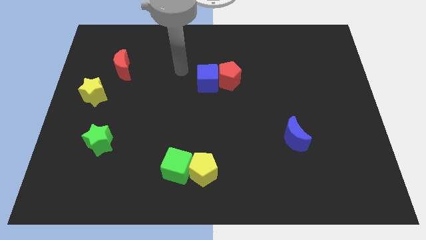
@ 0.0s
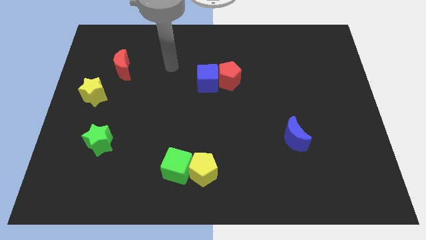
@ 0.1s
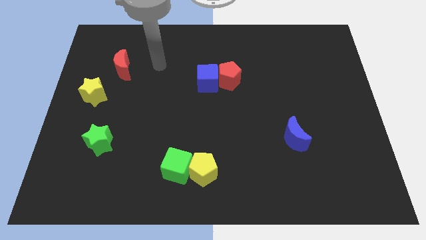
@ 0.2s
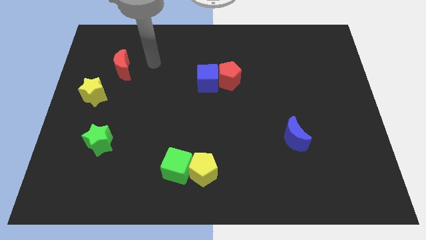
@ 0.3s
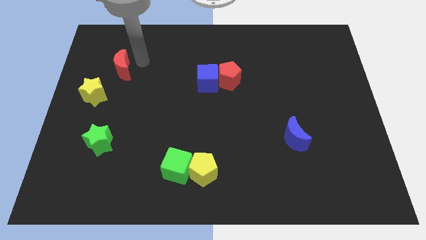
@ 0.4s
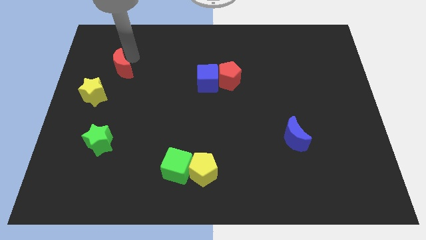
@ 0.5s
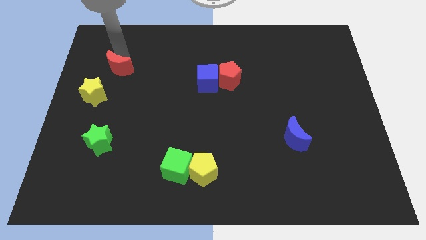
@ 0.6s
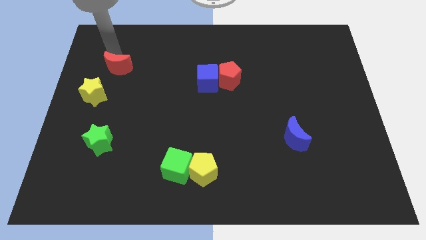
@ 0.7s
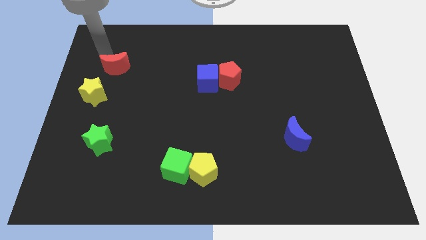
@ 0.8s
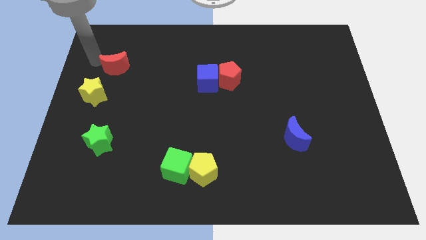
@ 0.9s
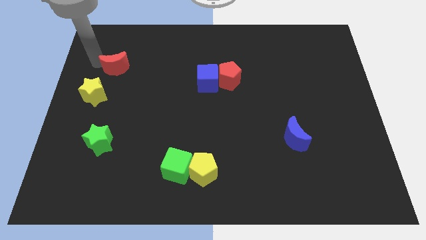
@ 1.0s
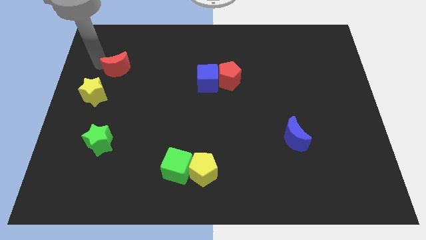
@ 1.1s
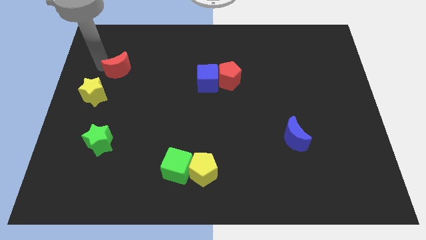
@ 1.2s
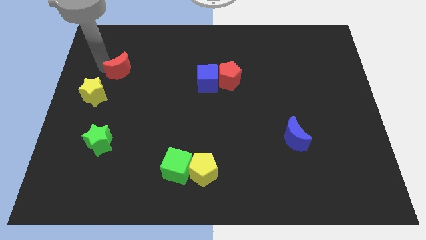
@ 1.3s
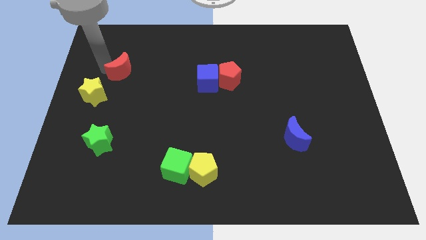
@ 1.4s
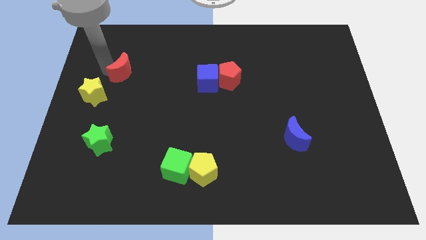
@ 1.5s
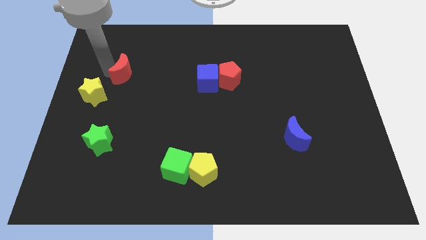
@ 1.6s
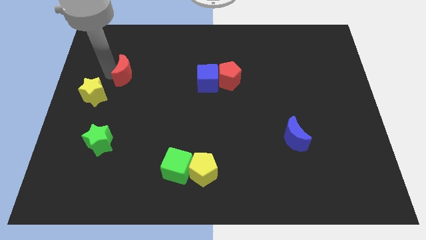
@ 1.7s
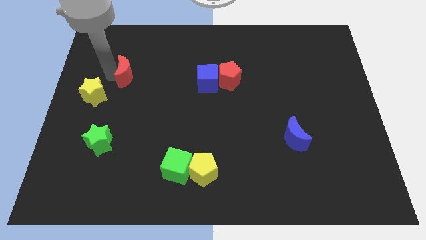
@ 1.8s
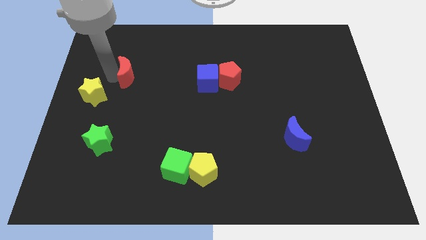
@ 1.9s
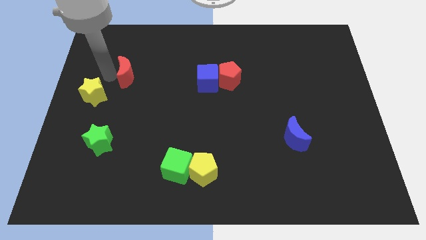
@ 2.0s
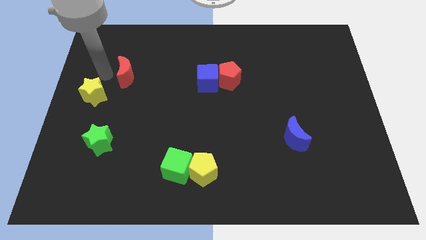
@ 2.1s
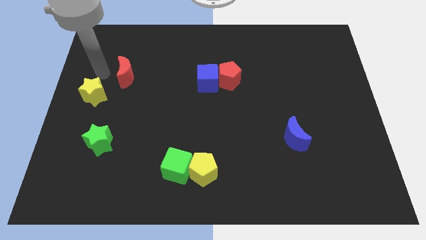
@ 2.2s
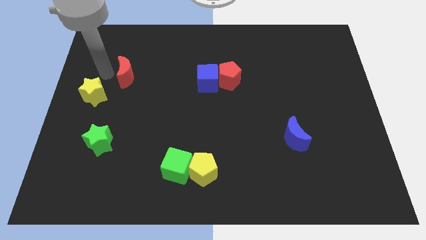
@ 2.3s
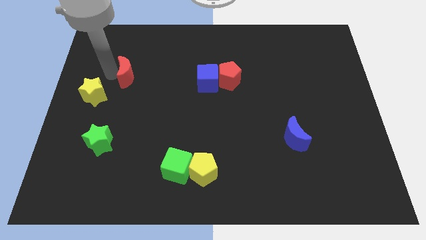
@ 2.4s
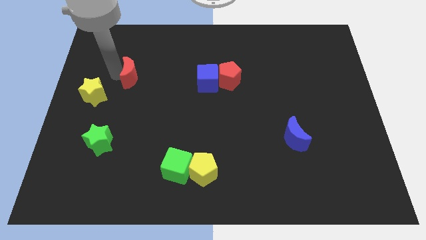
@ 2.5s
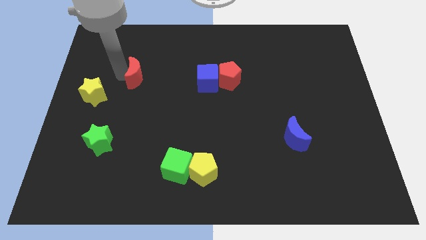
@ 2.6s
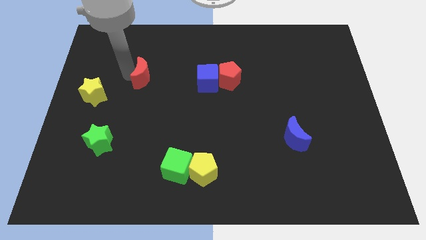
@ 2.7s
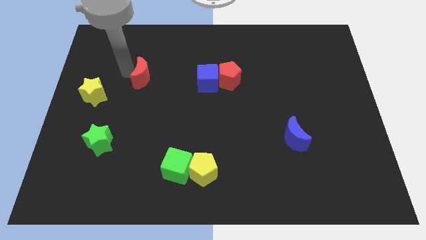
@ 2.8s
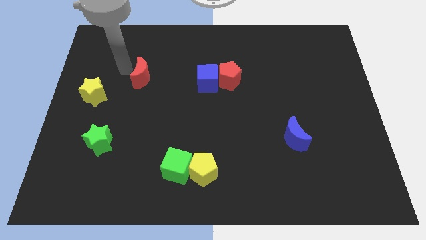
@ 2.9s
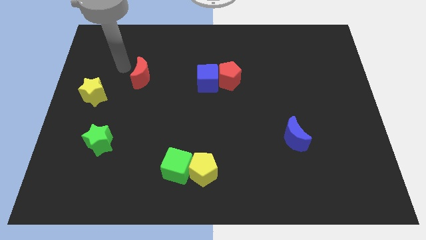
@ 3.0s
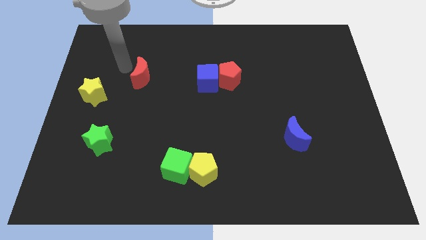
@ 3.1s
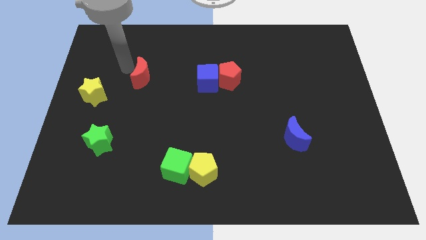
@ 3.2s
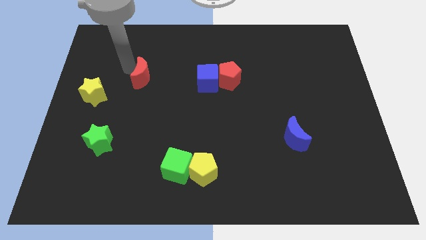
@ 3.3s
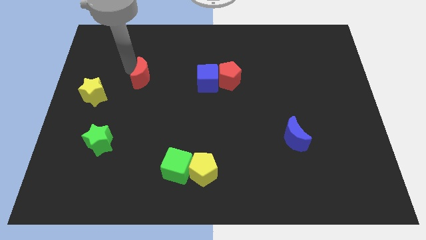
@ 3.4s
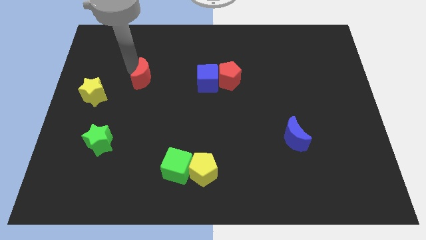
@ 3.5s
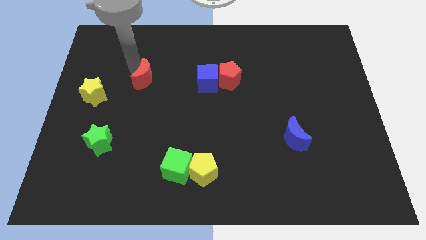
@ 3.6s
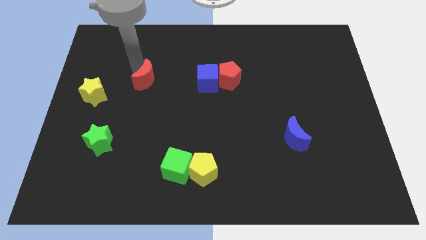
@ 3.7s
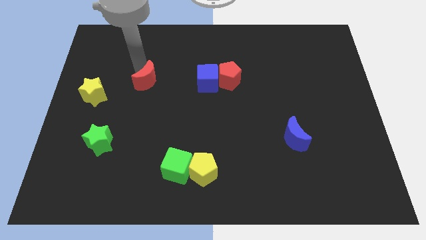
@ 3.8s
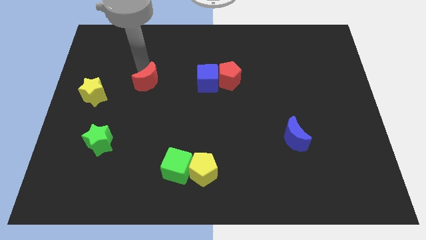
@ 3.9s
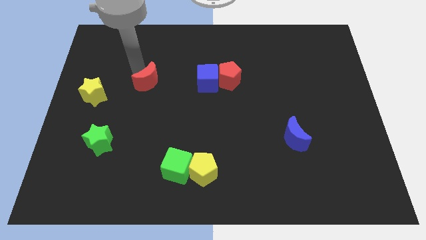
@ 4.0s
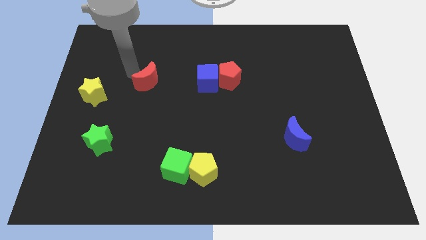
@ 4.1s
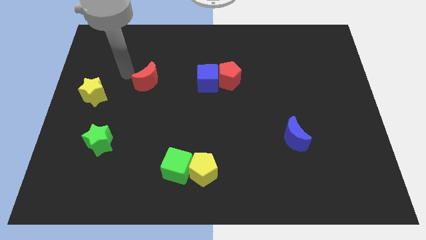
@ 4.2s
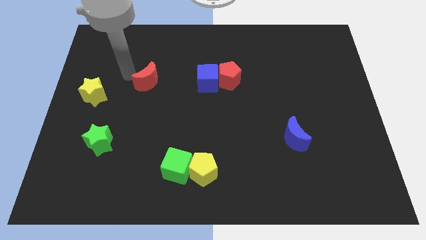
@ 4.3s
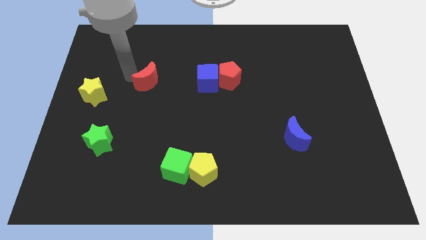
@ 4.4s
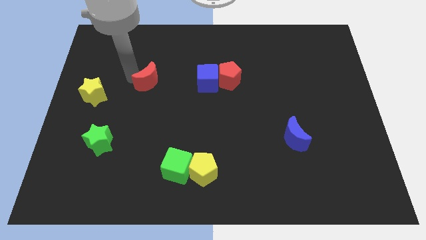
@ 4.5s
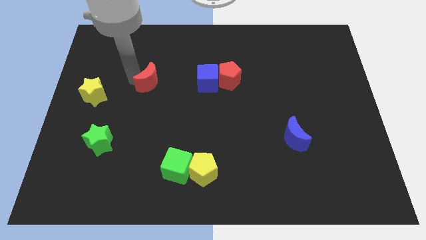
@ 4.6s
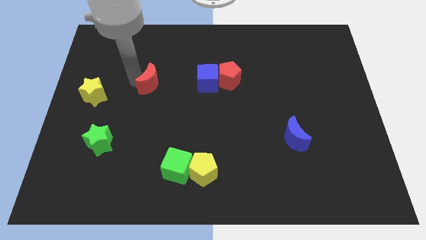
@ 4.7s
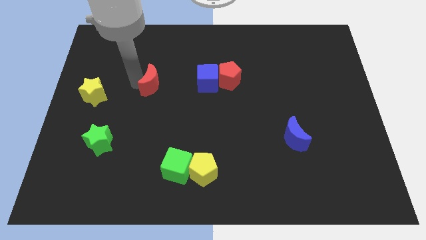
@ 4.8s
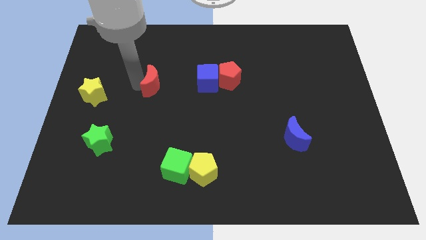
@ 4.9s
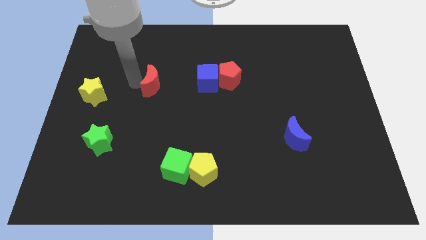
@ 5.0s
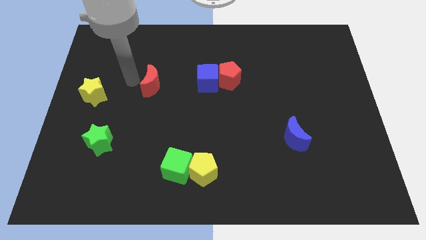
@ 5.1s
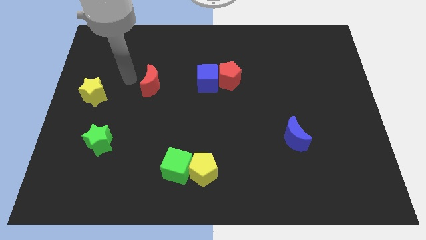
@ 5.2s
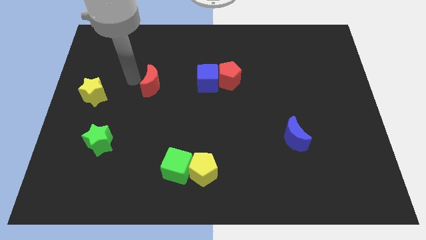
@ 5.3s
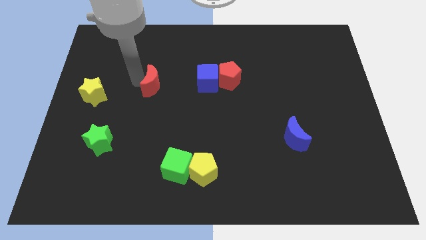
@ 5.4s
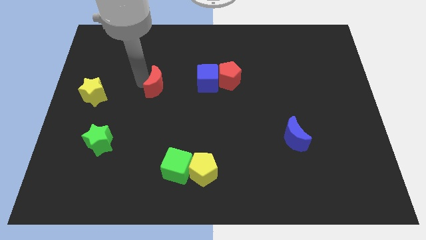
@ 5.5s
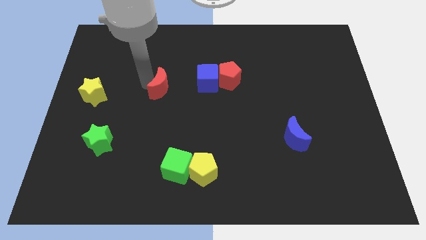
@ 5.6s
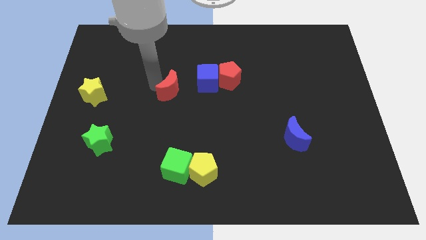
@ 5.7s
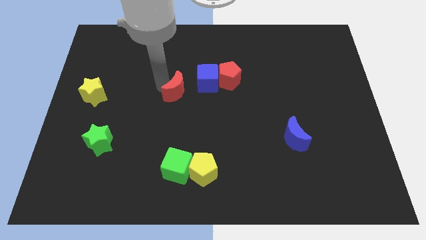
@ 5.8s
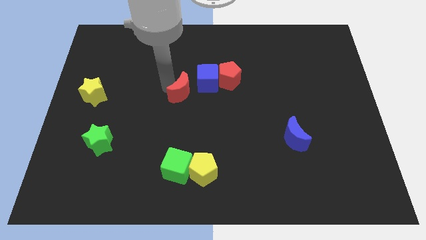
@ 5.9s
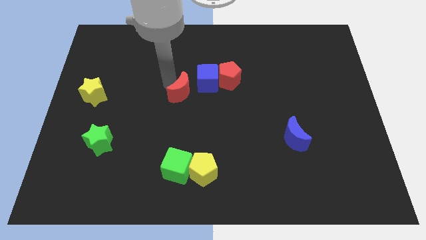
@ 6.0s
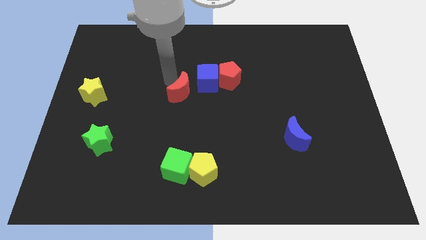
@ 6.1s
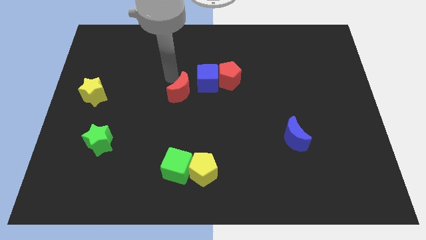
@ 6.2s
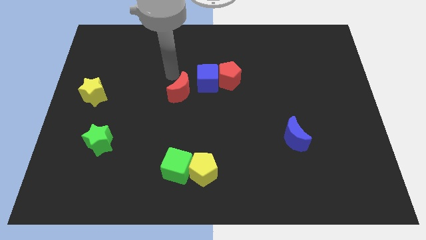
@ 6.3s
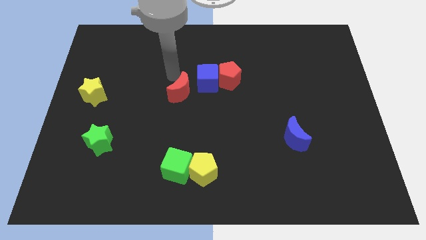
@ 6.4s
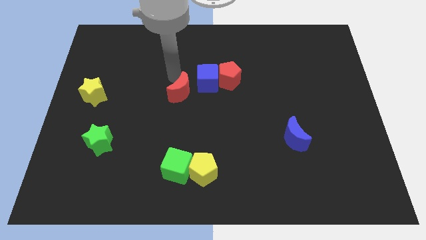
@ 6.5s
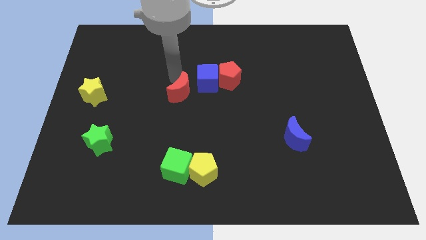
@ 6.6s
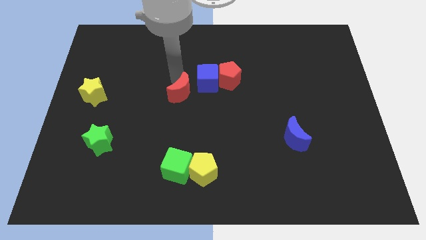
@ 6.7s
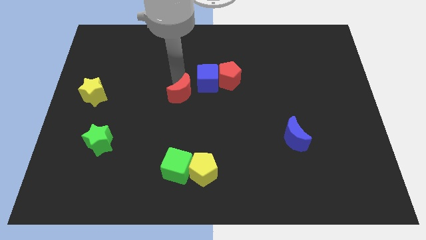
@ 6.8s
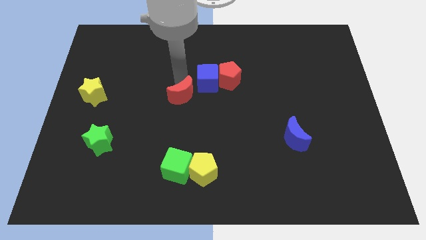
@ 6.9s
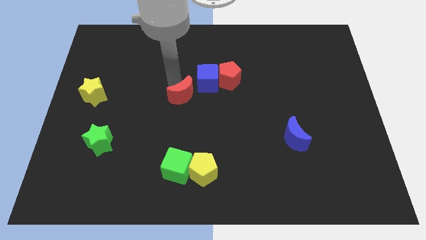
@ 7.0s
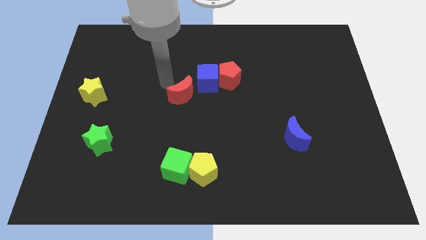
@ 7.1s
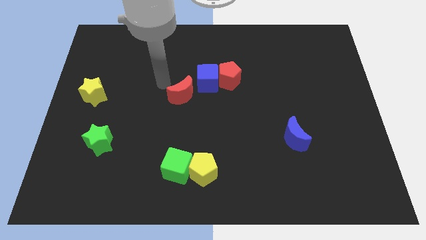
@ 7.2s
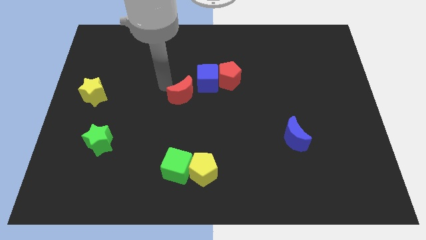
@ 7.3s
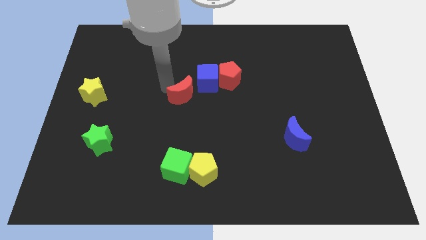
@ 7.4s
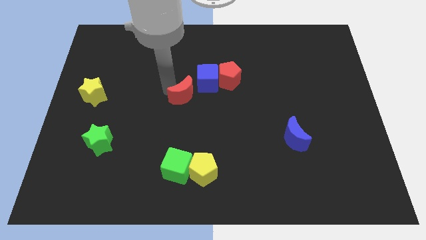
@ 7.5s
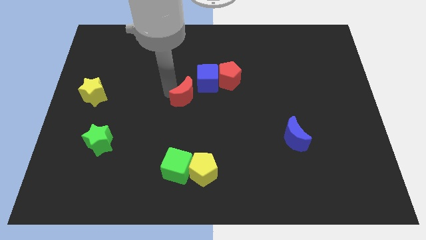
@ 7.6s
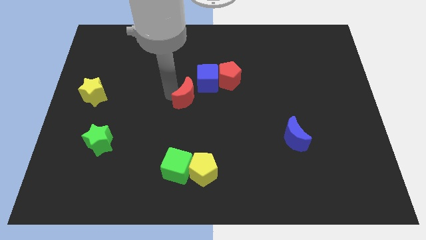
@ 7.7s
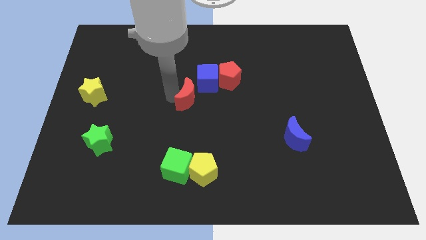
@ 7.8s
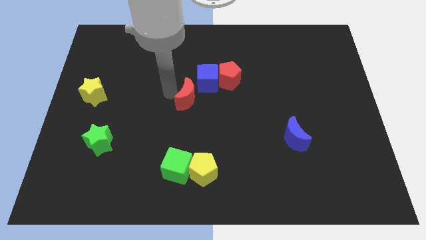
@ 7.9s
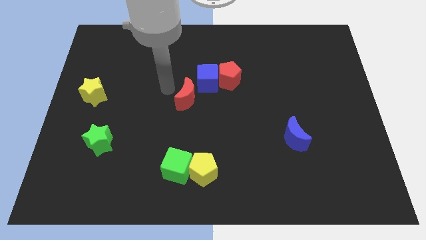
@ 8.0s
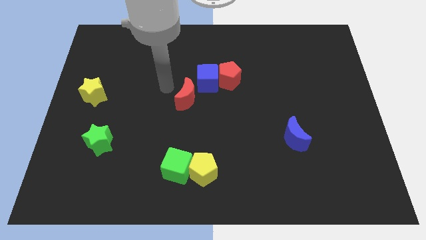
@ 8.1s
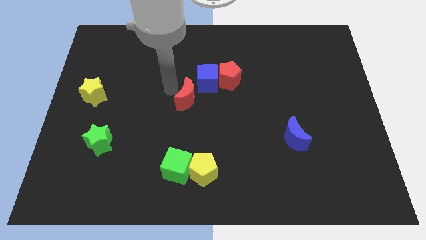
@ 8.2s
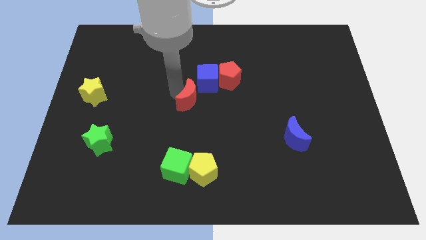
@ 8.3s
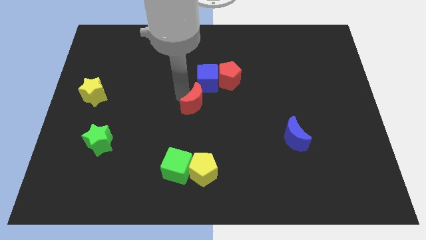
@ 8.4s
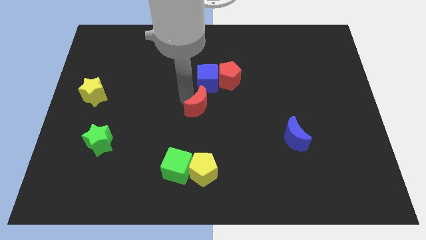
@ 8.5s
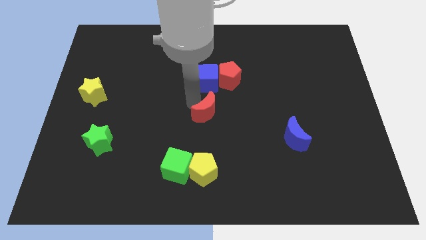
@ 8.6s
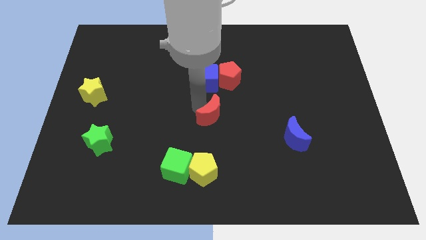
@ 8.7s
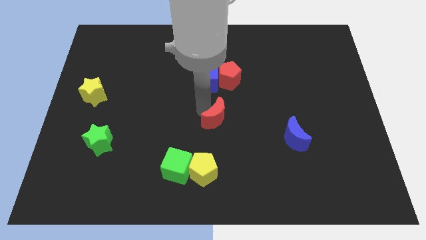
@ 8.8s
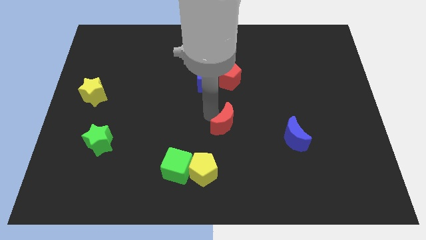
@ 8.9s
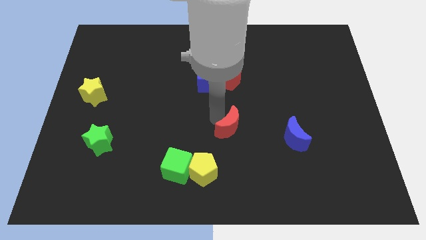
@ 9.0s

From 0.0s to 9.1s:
put the red moon left of the blue moon
